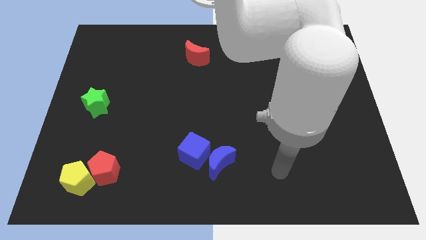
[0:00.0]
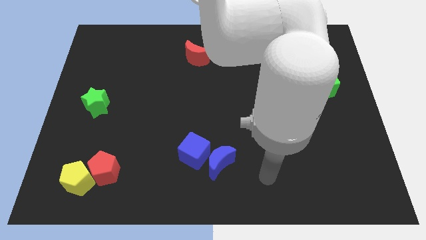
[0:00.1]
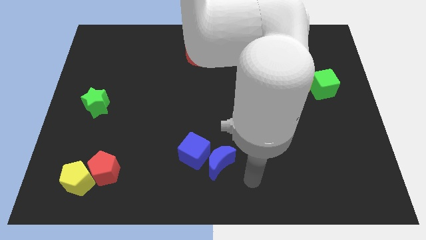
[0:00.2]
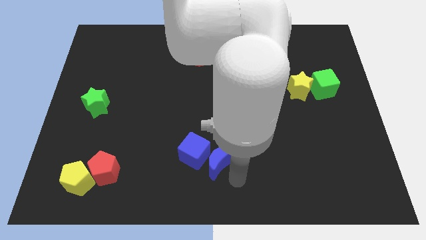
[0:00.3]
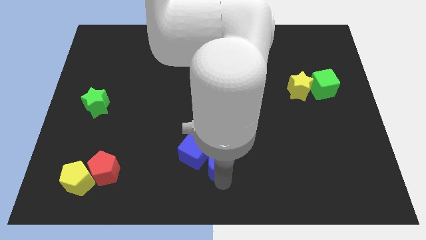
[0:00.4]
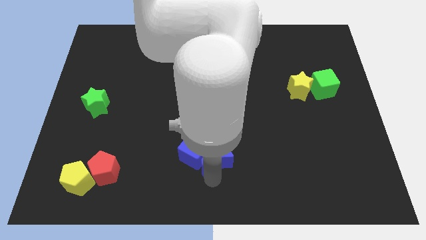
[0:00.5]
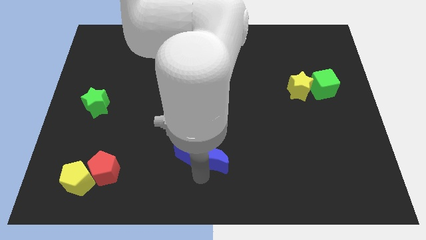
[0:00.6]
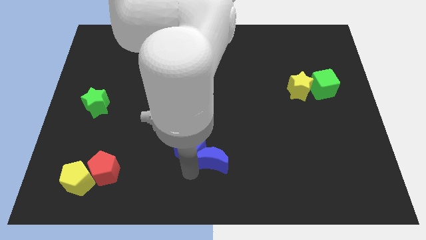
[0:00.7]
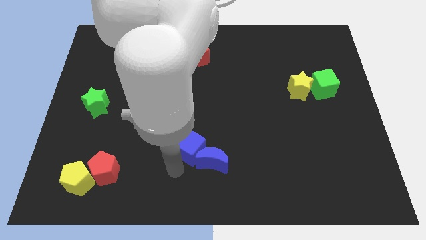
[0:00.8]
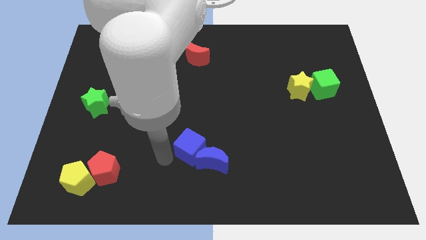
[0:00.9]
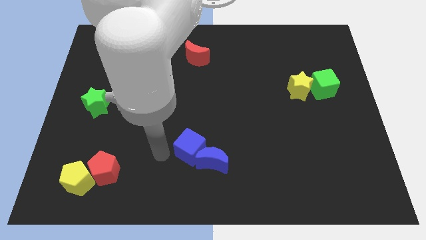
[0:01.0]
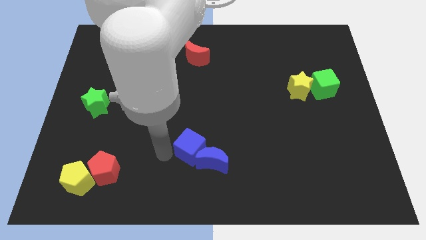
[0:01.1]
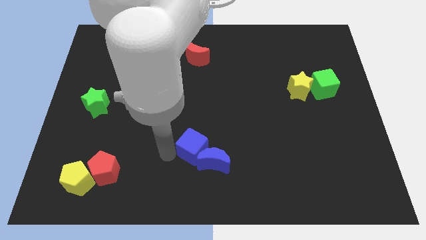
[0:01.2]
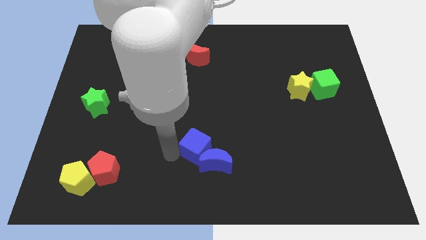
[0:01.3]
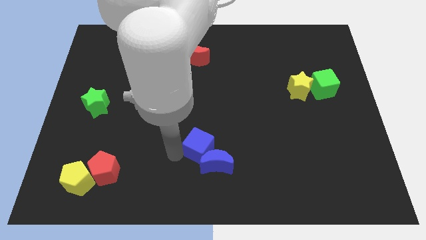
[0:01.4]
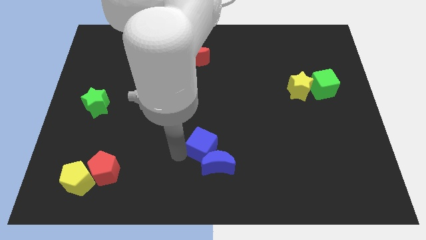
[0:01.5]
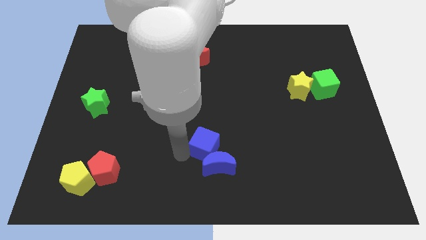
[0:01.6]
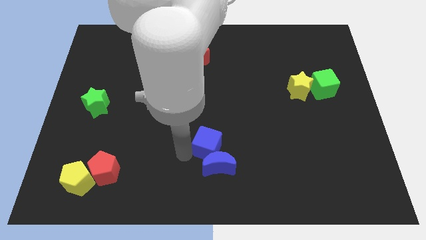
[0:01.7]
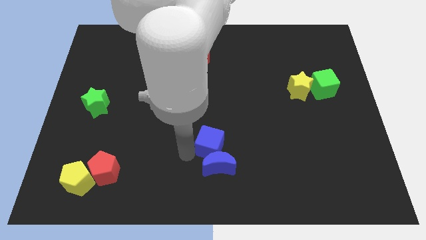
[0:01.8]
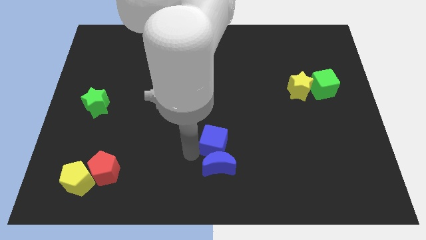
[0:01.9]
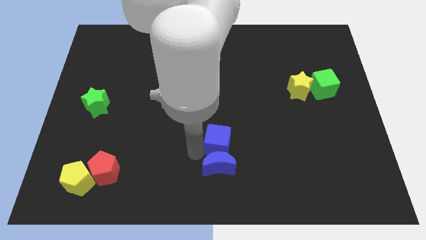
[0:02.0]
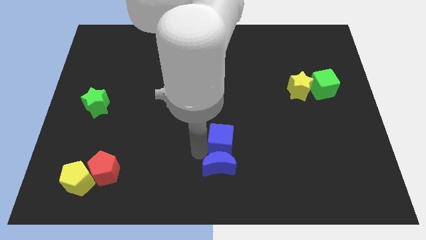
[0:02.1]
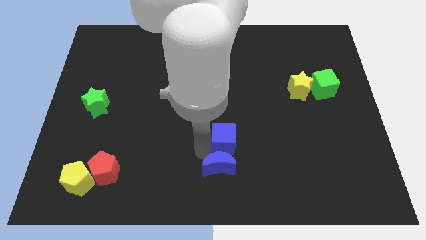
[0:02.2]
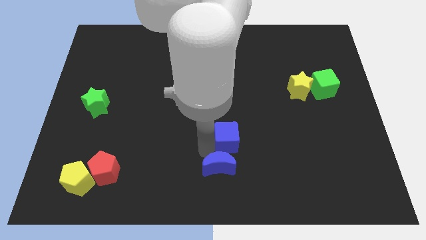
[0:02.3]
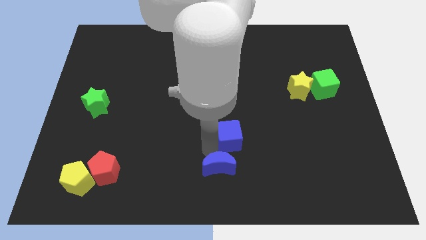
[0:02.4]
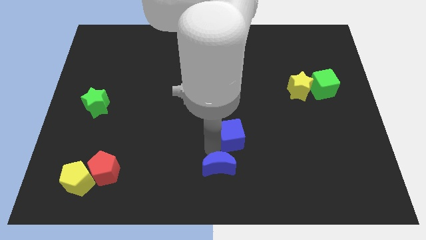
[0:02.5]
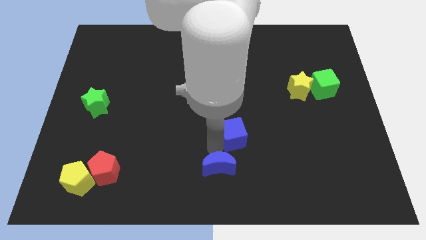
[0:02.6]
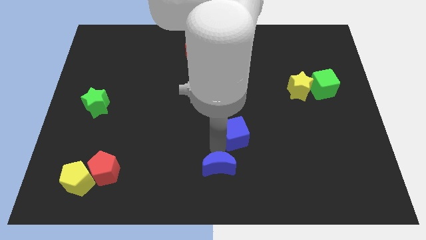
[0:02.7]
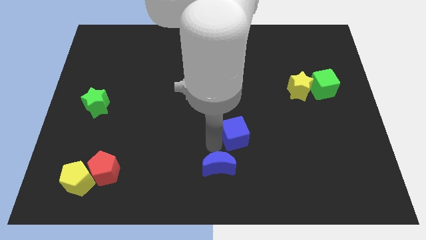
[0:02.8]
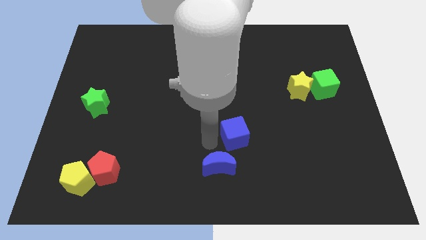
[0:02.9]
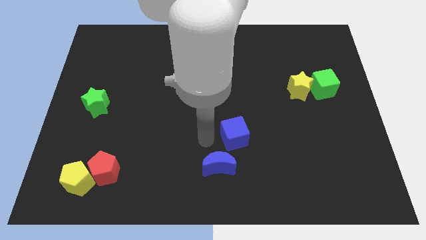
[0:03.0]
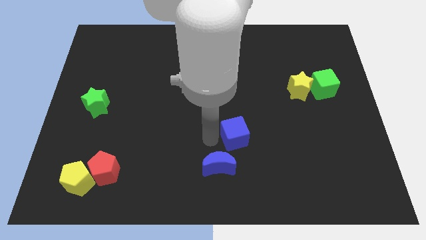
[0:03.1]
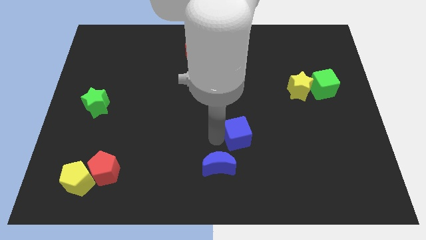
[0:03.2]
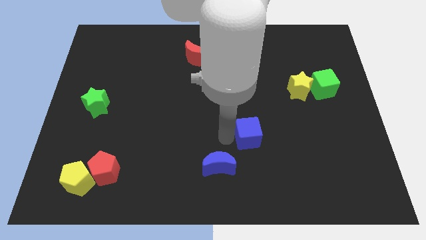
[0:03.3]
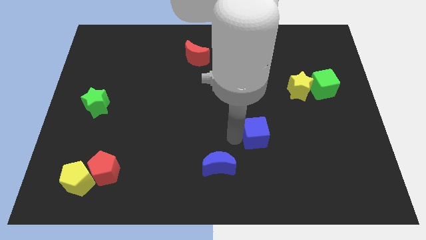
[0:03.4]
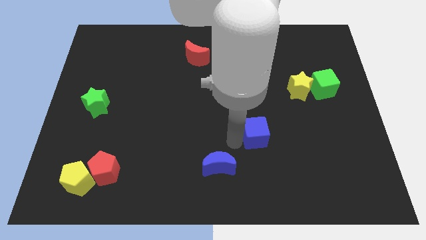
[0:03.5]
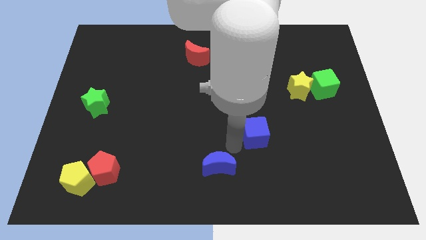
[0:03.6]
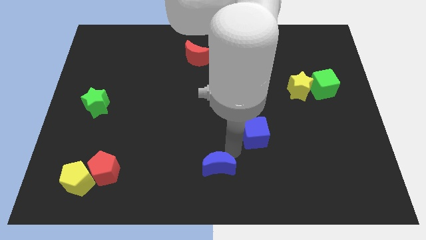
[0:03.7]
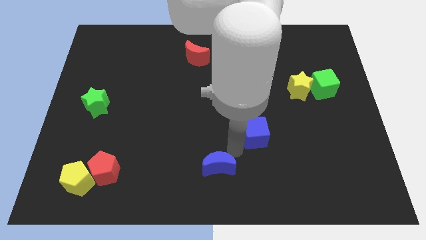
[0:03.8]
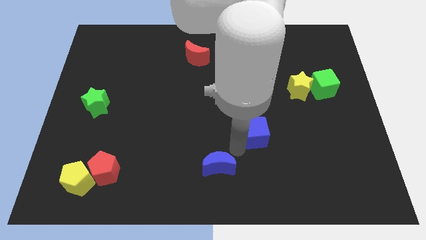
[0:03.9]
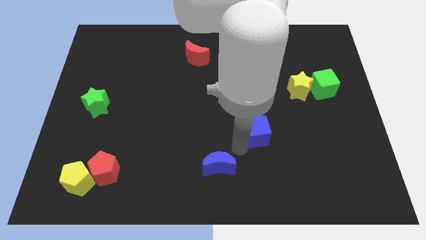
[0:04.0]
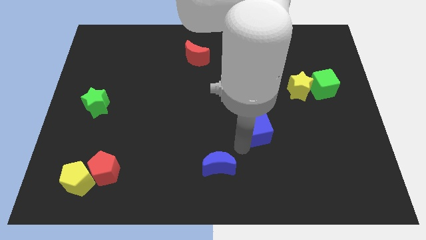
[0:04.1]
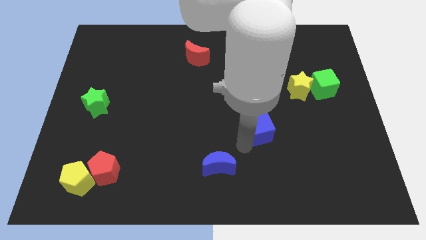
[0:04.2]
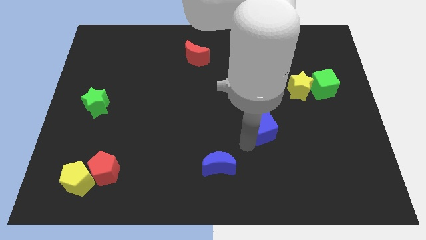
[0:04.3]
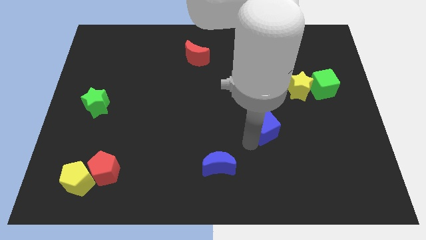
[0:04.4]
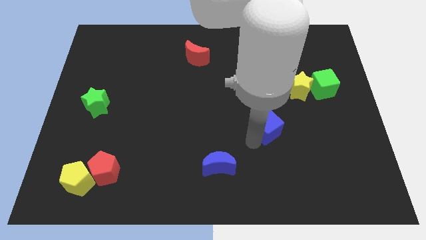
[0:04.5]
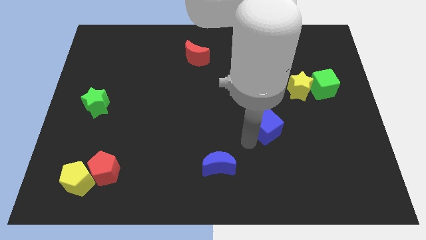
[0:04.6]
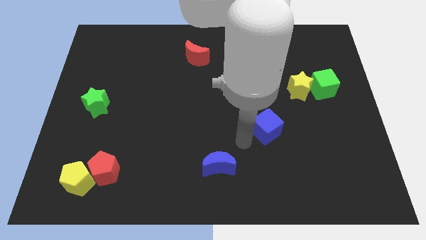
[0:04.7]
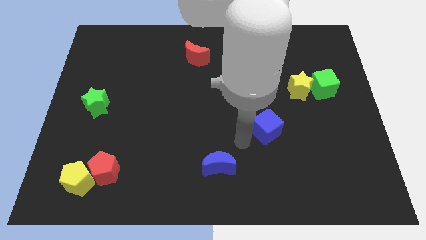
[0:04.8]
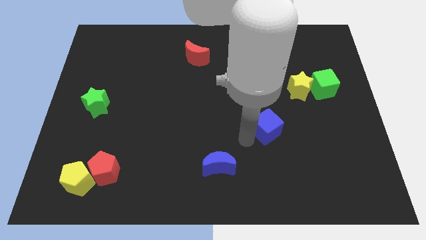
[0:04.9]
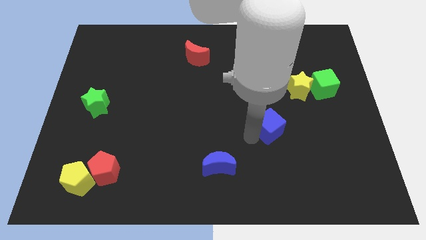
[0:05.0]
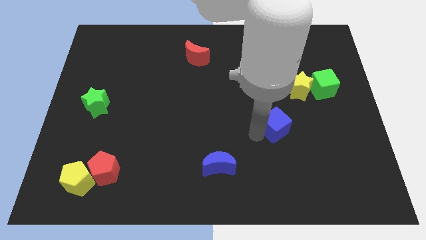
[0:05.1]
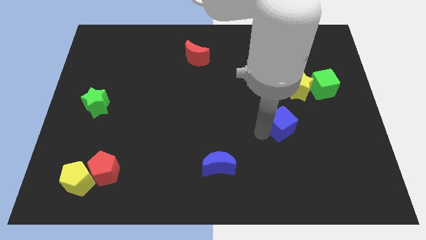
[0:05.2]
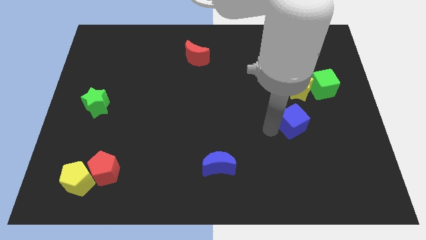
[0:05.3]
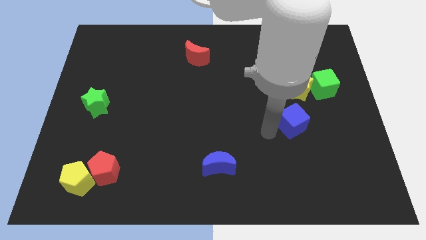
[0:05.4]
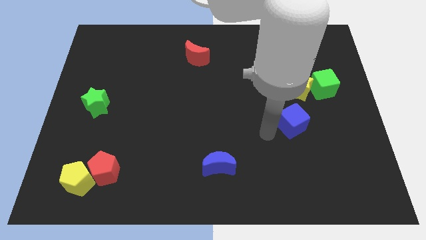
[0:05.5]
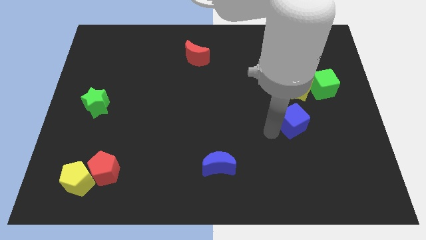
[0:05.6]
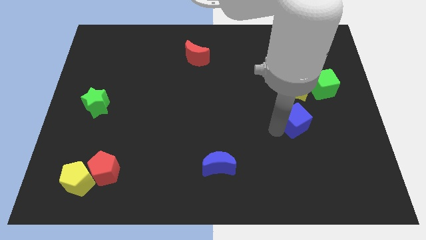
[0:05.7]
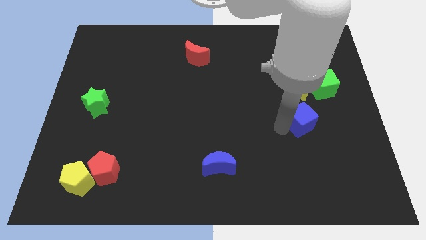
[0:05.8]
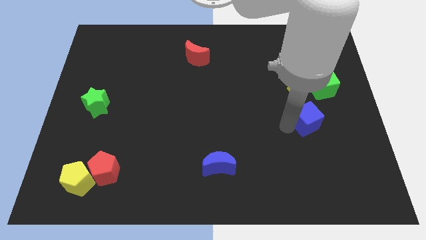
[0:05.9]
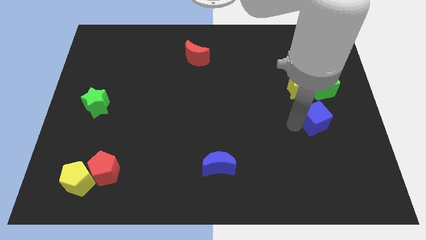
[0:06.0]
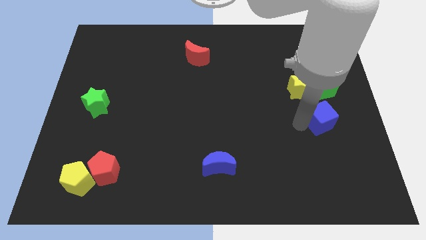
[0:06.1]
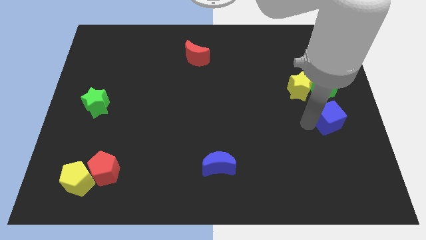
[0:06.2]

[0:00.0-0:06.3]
slide the blue cube to the center right
